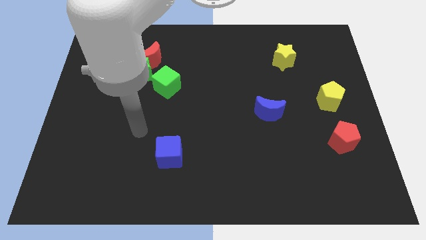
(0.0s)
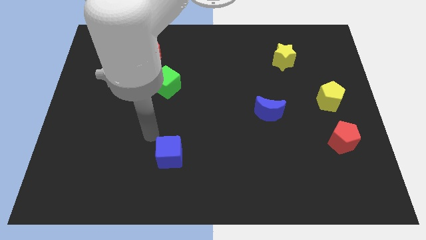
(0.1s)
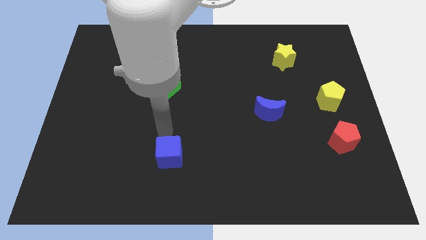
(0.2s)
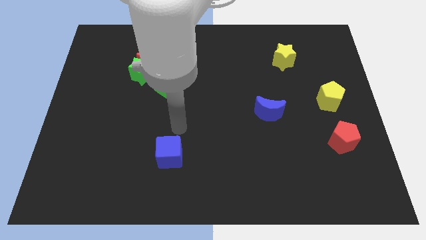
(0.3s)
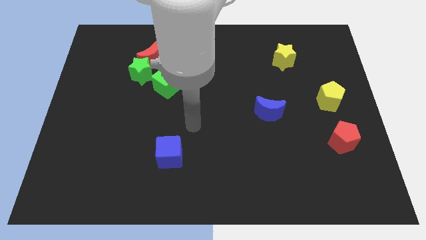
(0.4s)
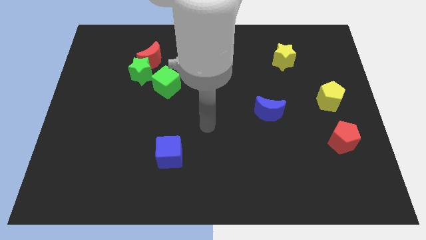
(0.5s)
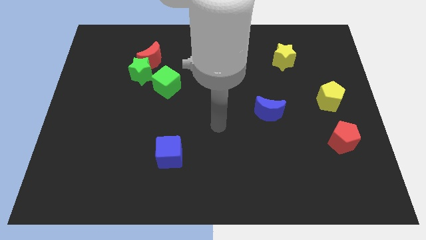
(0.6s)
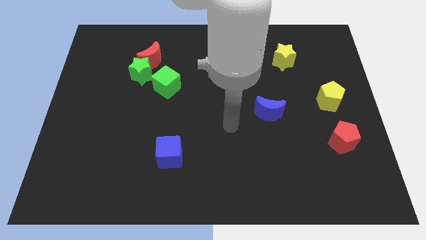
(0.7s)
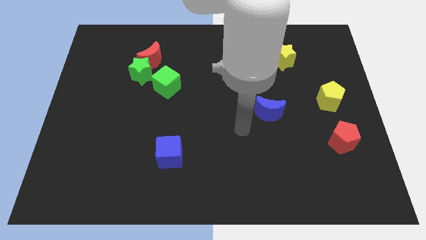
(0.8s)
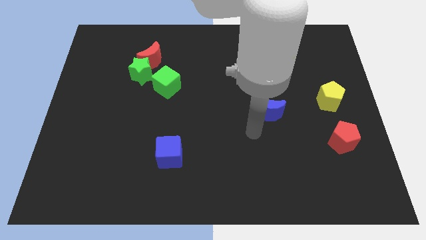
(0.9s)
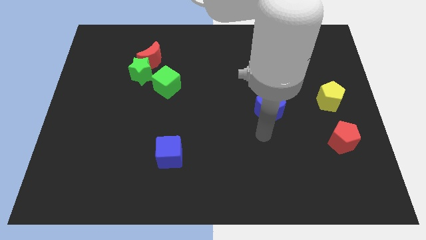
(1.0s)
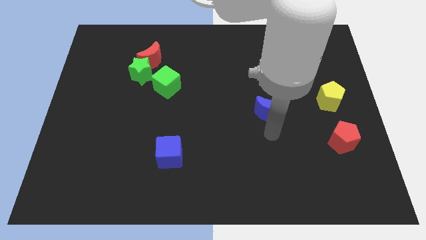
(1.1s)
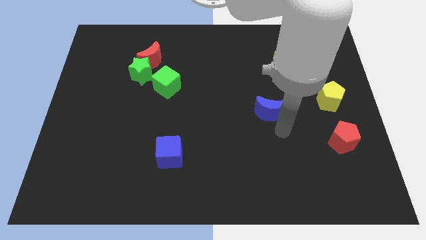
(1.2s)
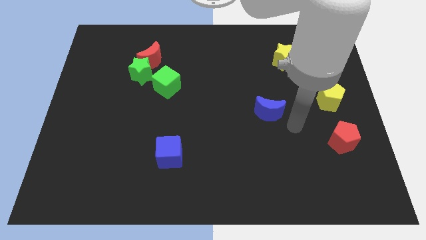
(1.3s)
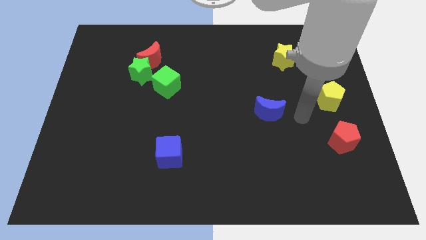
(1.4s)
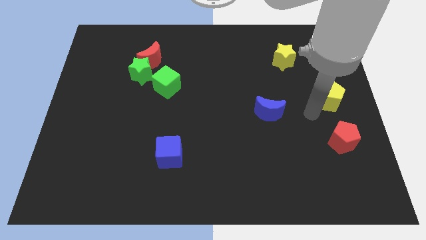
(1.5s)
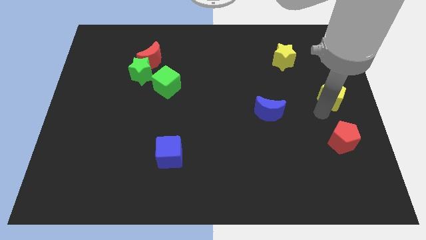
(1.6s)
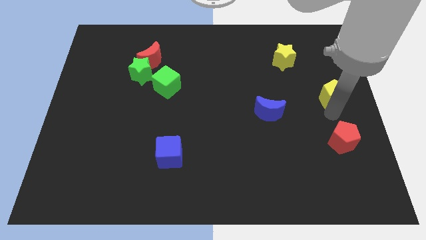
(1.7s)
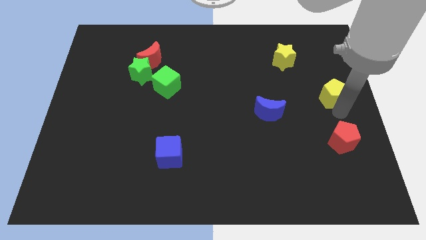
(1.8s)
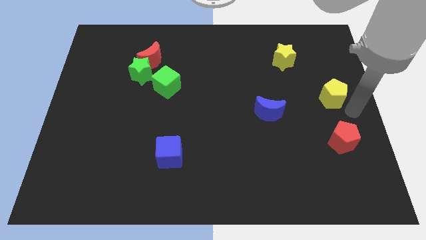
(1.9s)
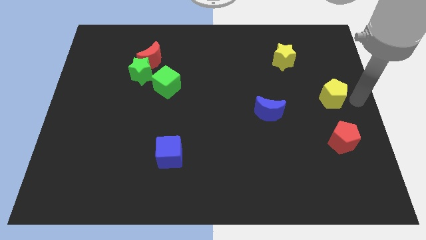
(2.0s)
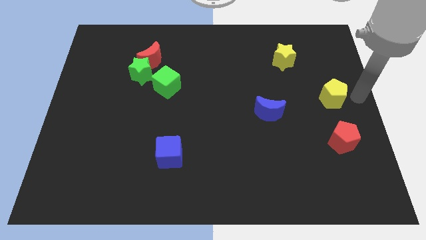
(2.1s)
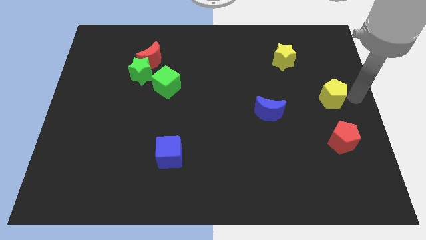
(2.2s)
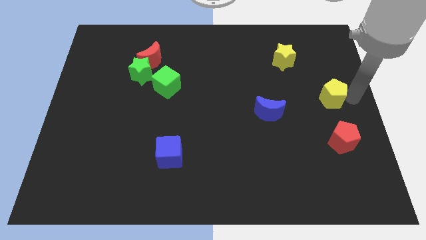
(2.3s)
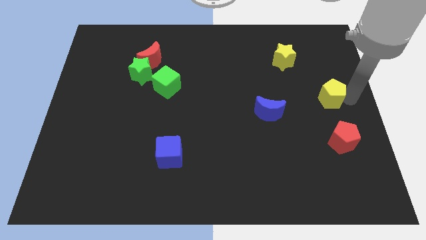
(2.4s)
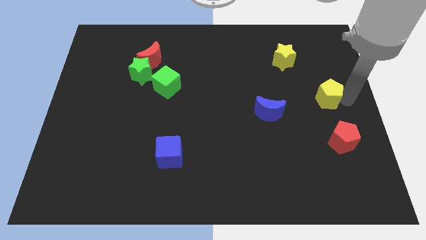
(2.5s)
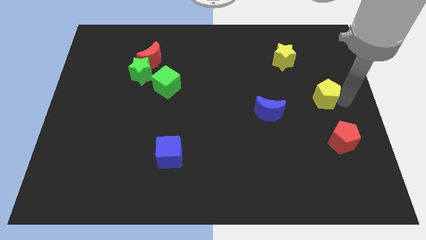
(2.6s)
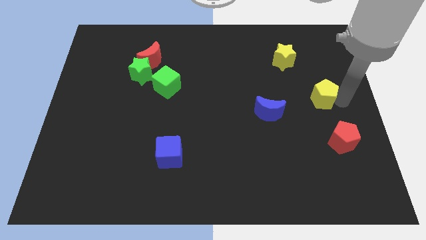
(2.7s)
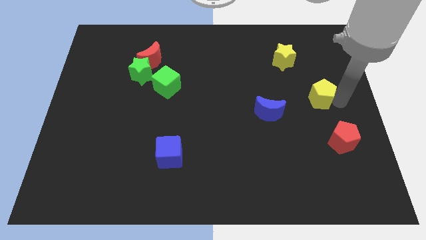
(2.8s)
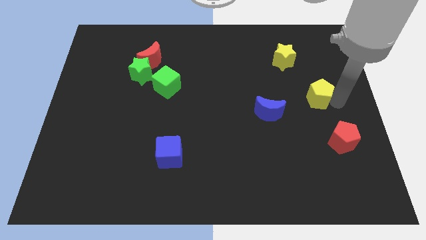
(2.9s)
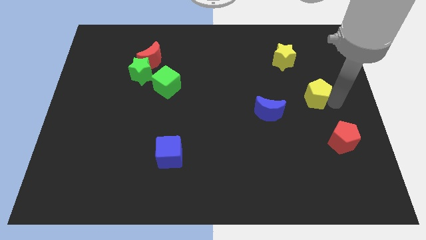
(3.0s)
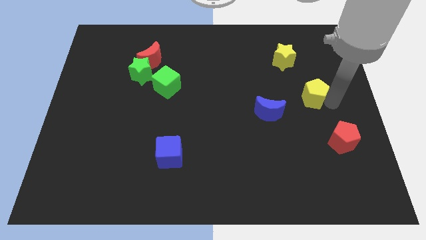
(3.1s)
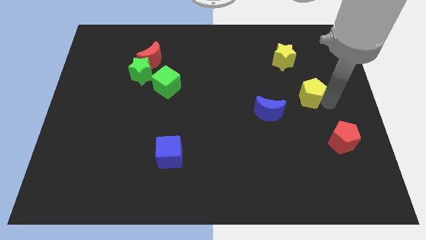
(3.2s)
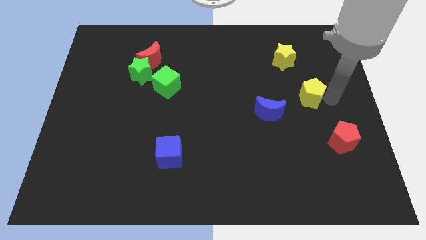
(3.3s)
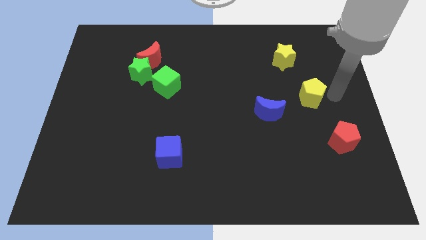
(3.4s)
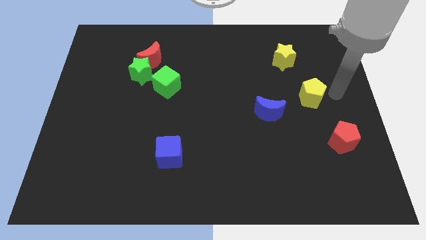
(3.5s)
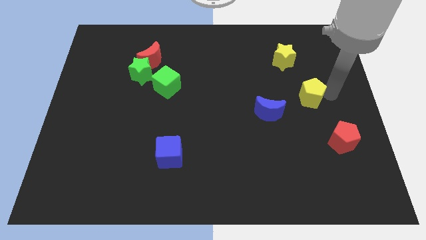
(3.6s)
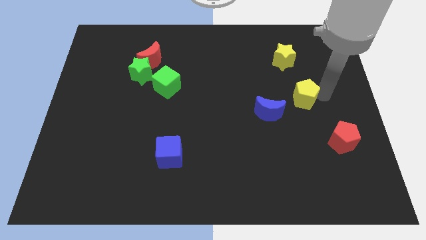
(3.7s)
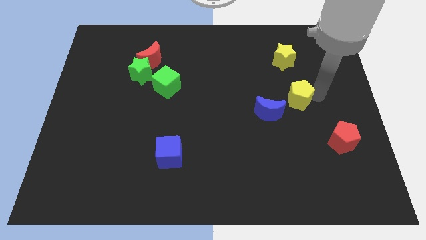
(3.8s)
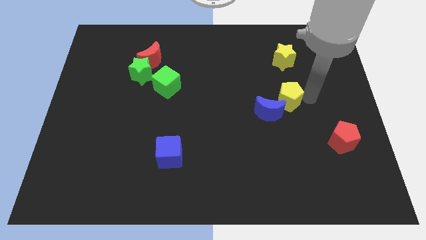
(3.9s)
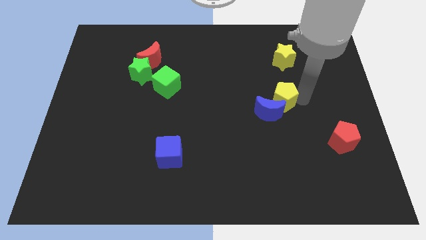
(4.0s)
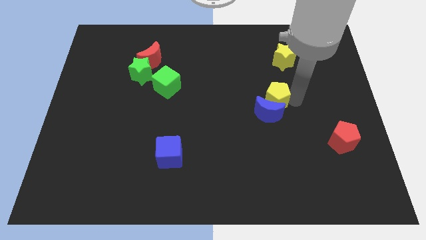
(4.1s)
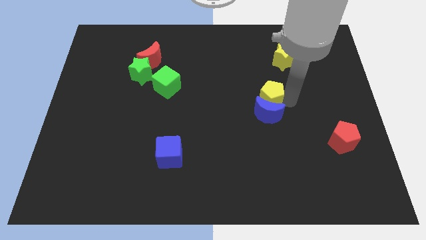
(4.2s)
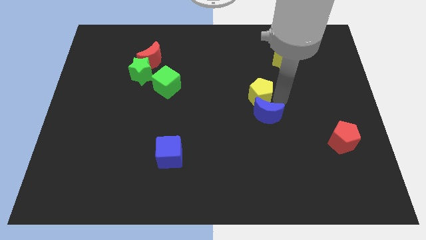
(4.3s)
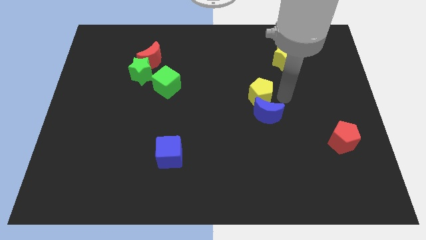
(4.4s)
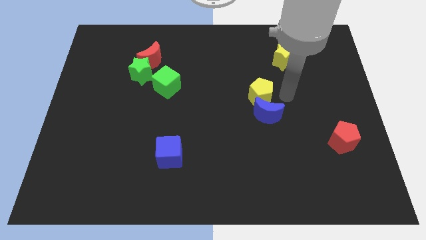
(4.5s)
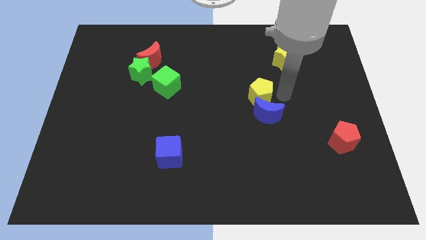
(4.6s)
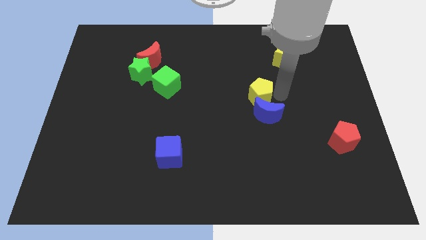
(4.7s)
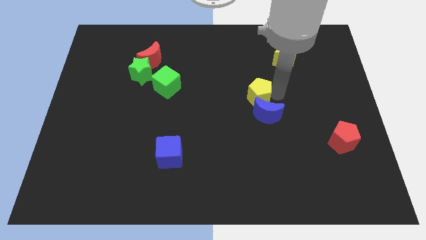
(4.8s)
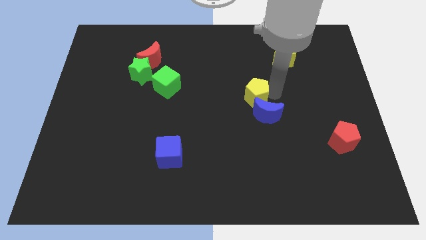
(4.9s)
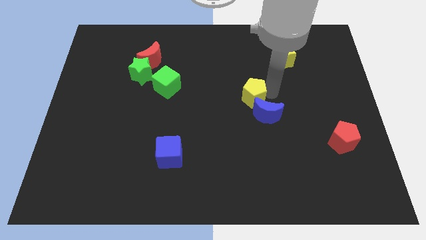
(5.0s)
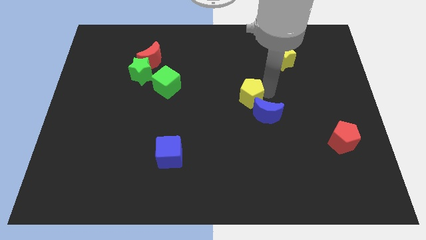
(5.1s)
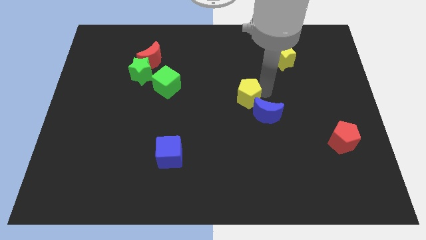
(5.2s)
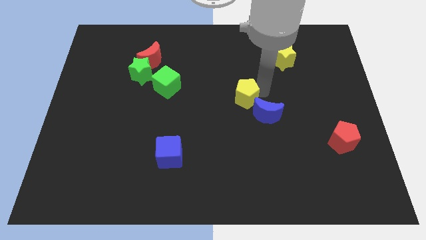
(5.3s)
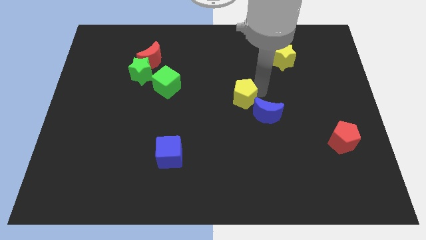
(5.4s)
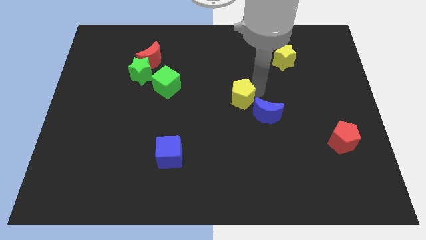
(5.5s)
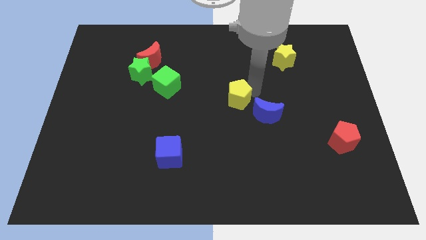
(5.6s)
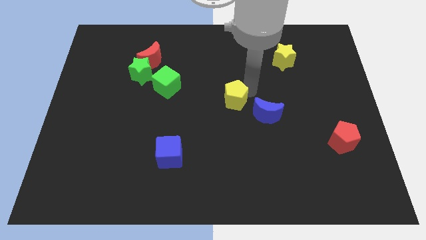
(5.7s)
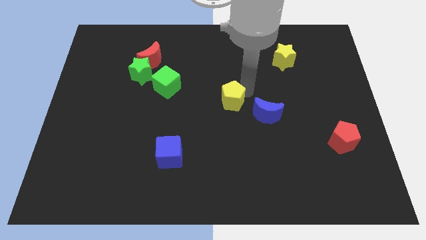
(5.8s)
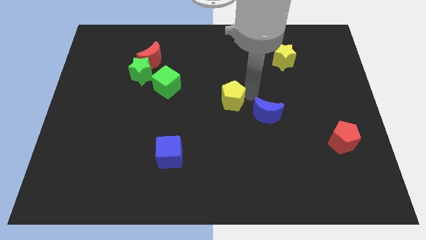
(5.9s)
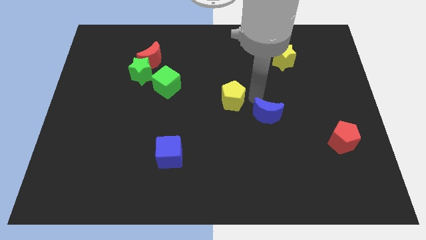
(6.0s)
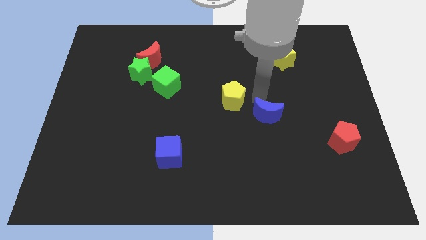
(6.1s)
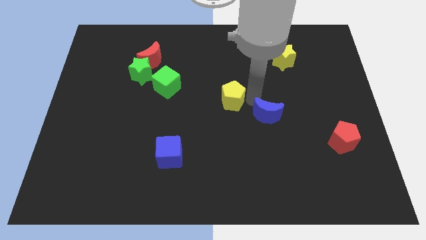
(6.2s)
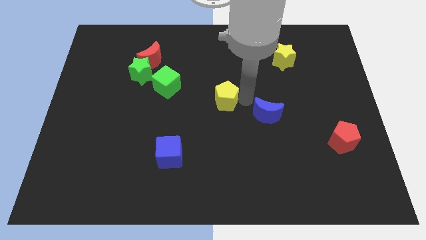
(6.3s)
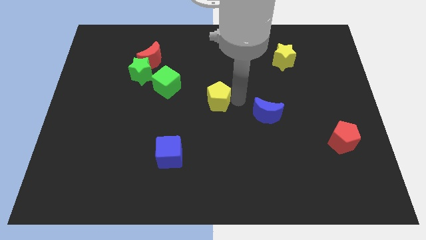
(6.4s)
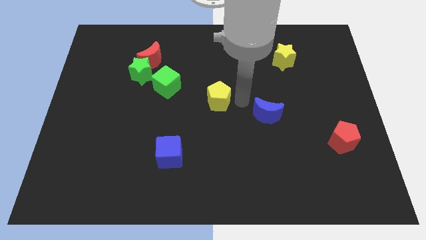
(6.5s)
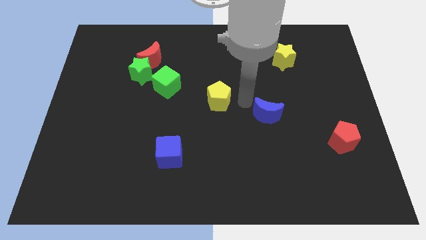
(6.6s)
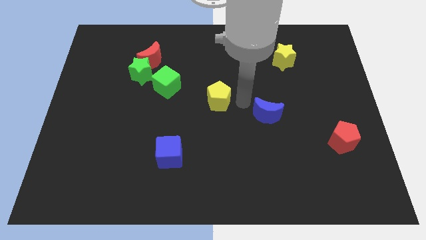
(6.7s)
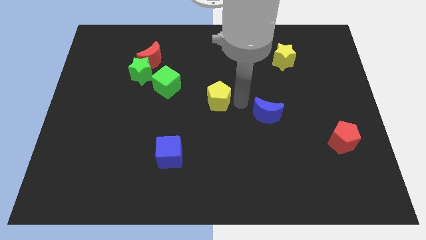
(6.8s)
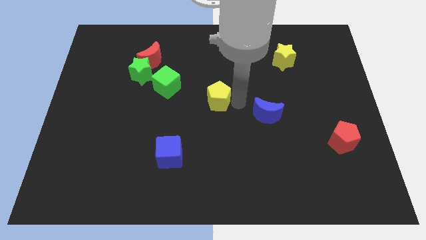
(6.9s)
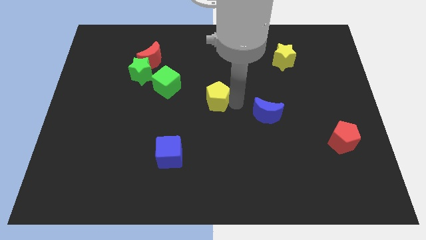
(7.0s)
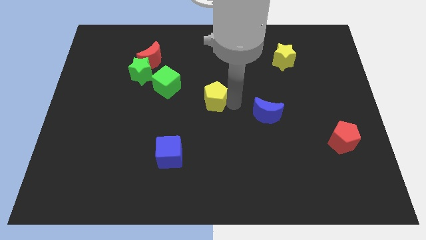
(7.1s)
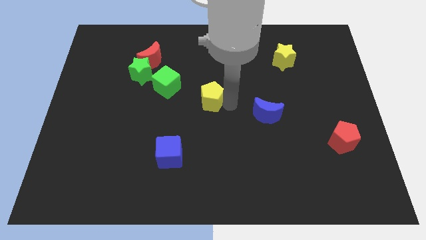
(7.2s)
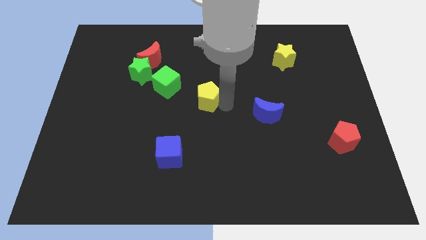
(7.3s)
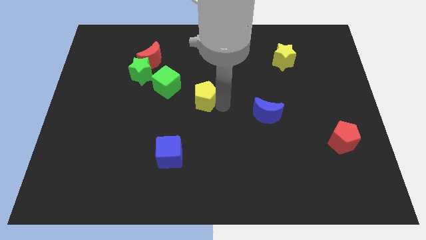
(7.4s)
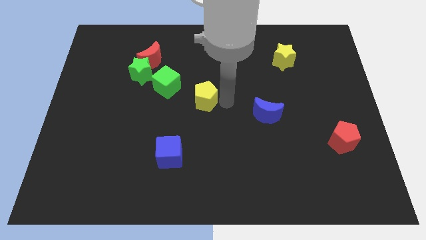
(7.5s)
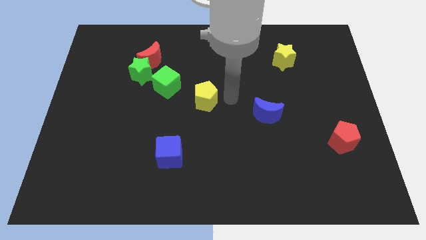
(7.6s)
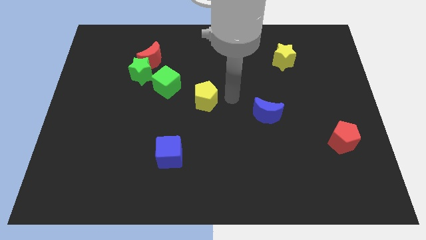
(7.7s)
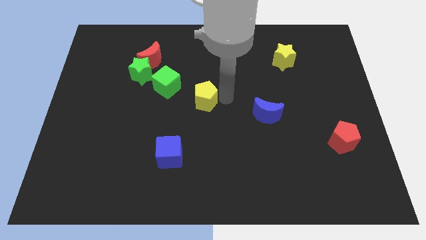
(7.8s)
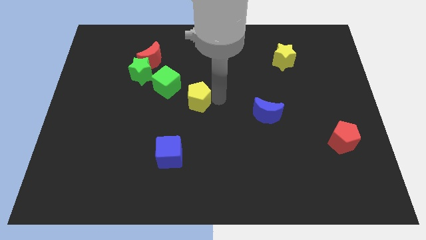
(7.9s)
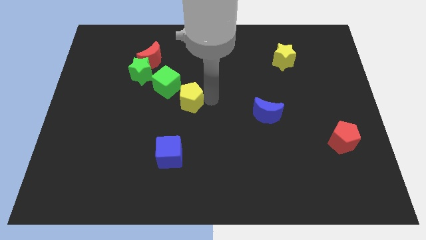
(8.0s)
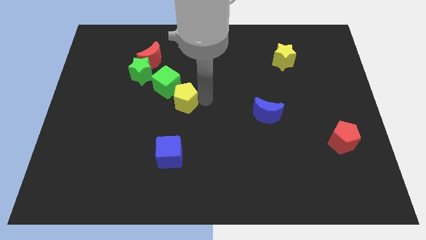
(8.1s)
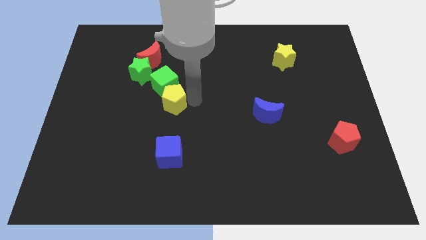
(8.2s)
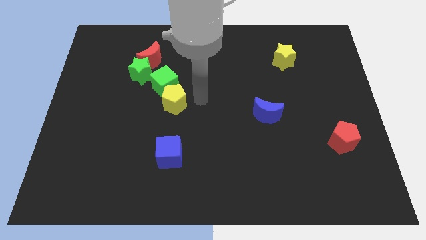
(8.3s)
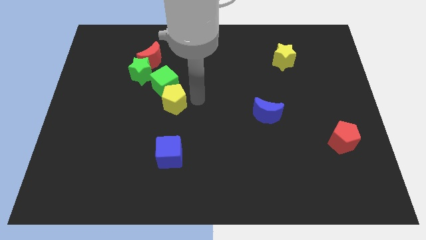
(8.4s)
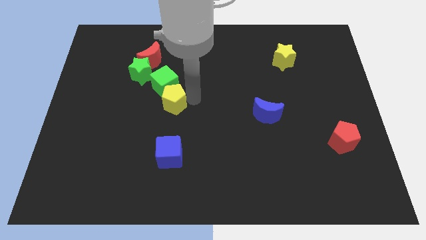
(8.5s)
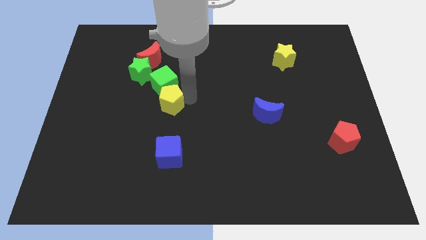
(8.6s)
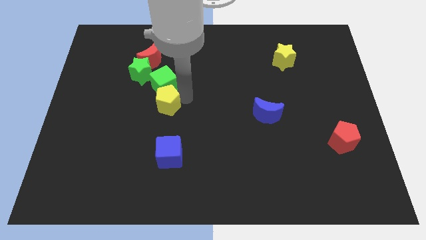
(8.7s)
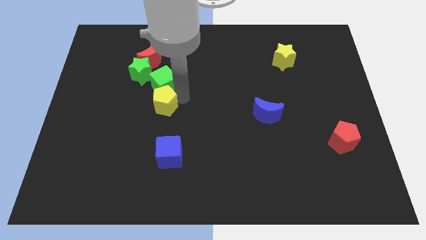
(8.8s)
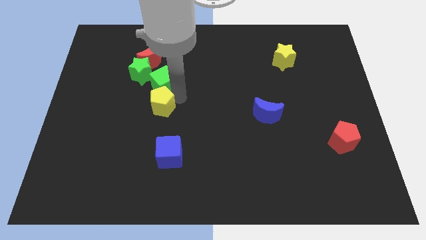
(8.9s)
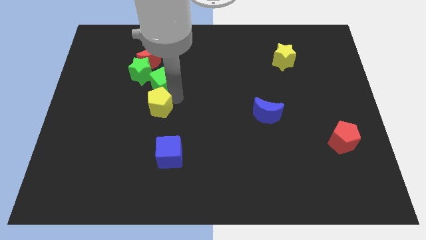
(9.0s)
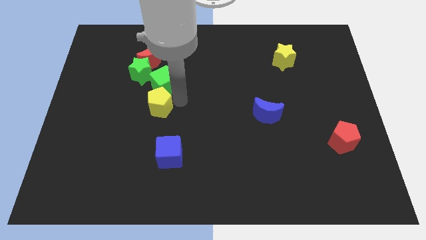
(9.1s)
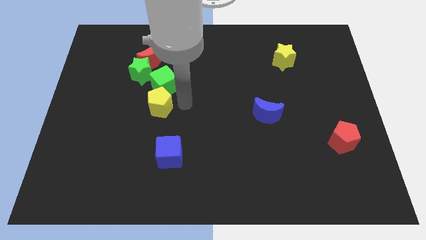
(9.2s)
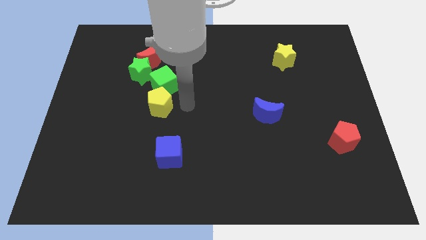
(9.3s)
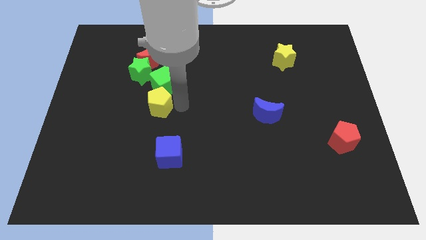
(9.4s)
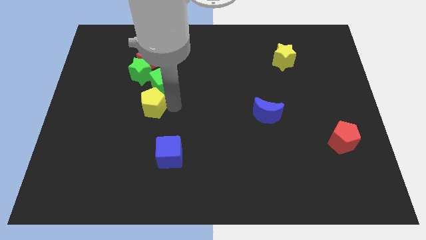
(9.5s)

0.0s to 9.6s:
slide the yellow pentagon below the green star
